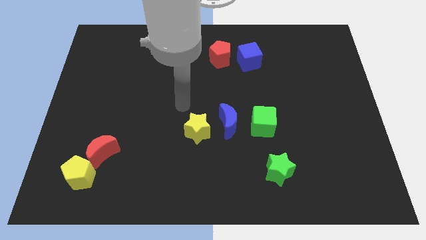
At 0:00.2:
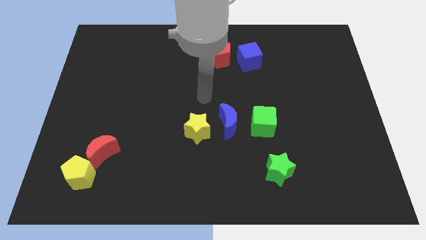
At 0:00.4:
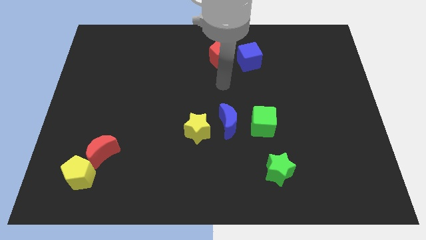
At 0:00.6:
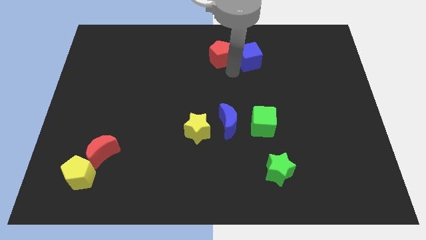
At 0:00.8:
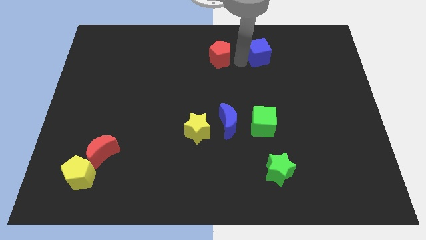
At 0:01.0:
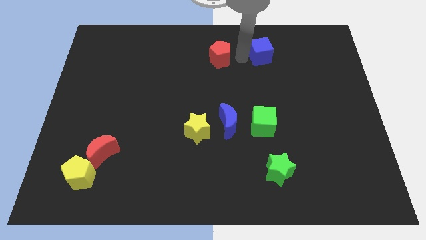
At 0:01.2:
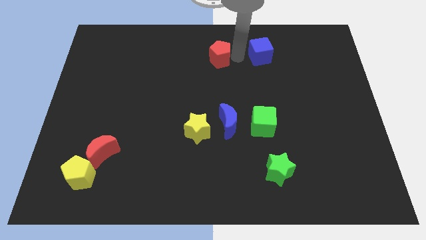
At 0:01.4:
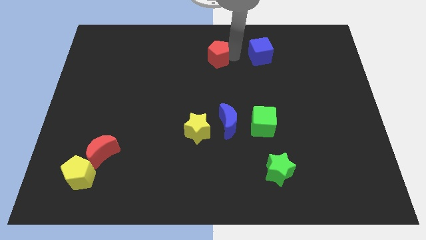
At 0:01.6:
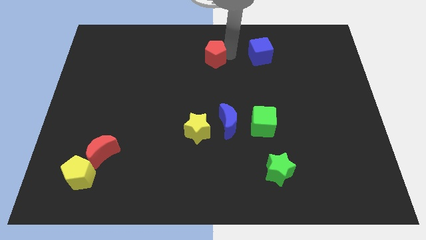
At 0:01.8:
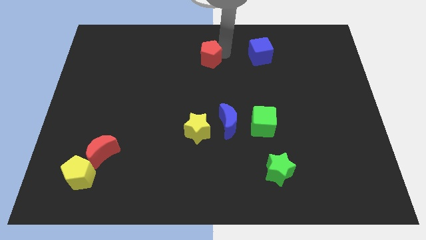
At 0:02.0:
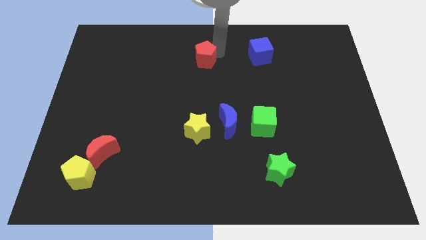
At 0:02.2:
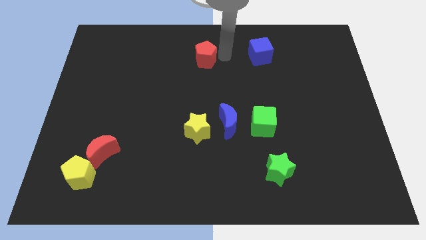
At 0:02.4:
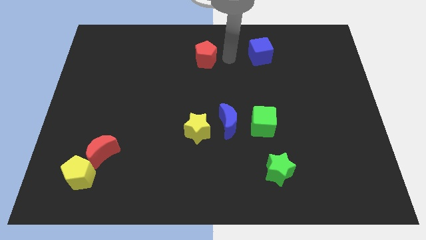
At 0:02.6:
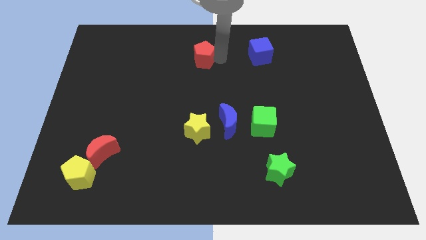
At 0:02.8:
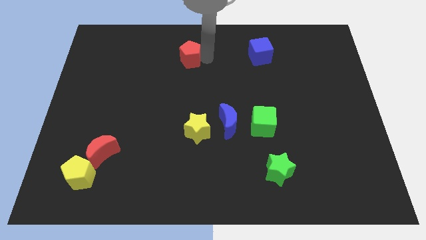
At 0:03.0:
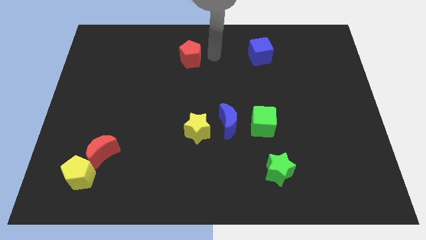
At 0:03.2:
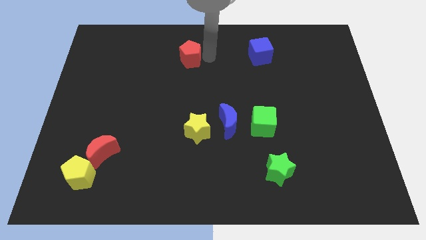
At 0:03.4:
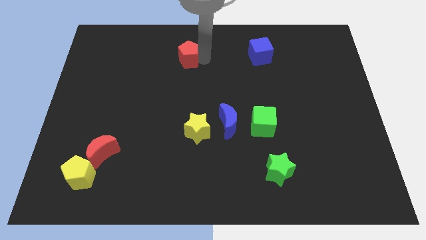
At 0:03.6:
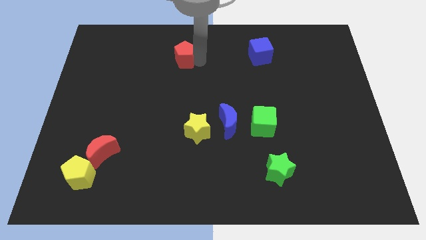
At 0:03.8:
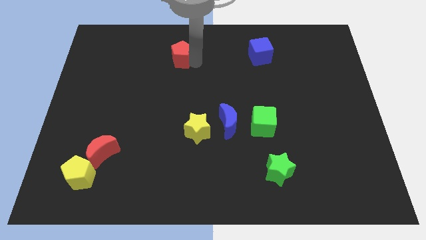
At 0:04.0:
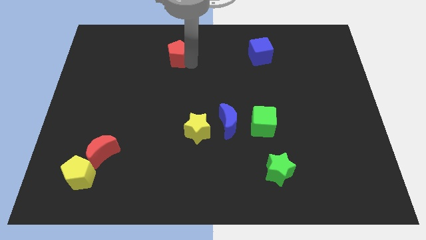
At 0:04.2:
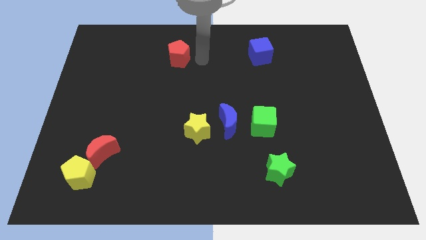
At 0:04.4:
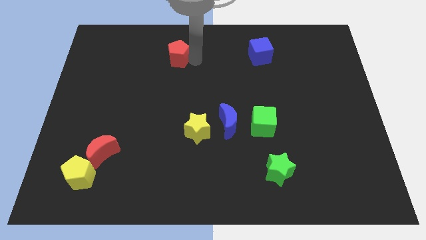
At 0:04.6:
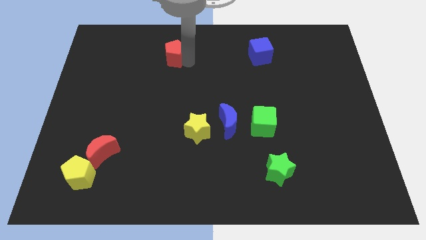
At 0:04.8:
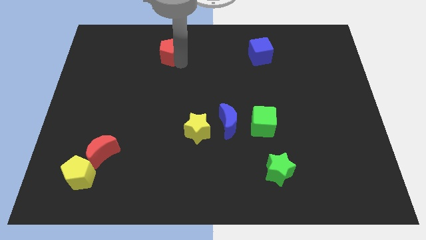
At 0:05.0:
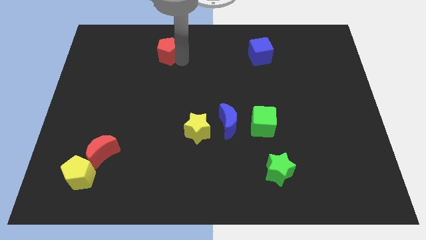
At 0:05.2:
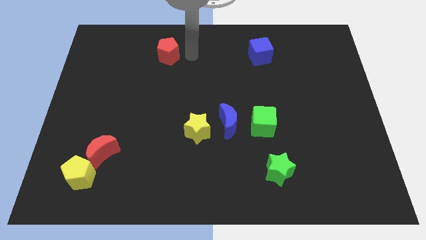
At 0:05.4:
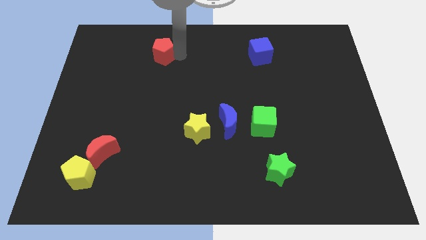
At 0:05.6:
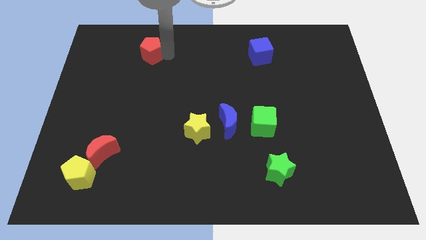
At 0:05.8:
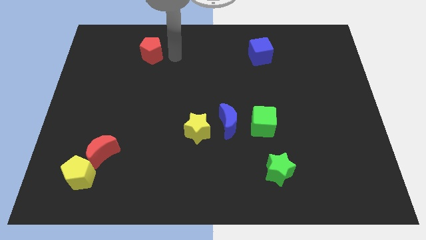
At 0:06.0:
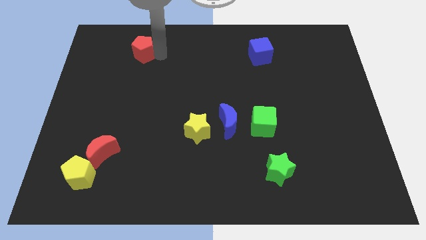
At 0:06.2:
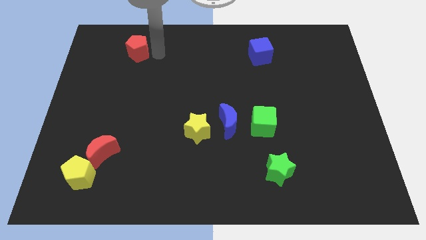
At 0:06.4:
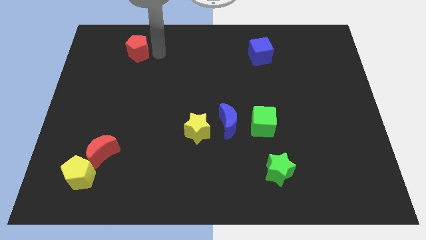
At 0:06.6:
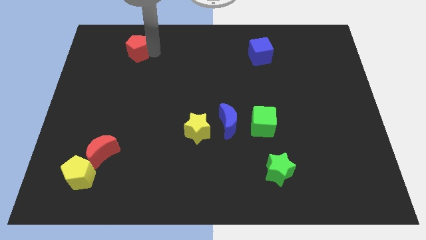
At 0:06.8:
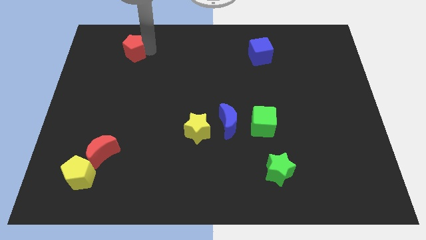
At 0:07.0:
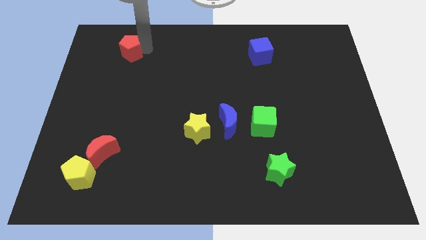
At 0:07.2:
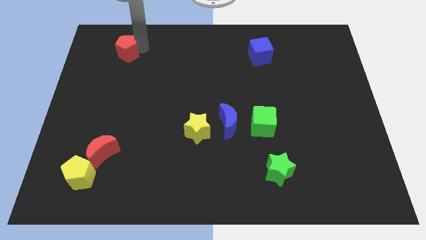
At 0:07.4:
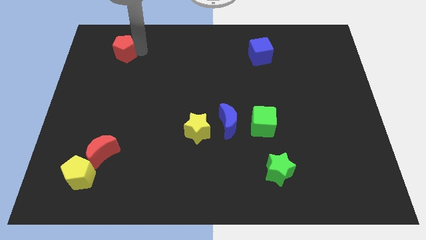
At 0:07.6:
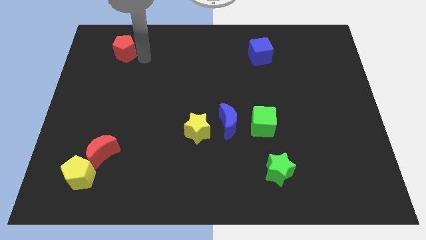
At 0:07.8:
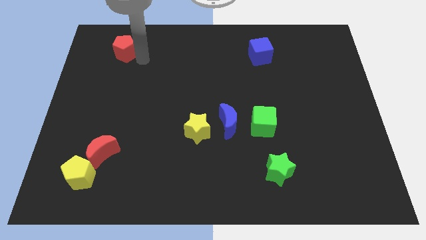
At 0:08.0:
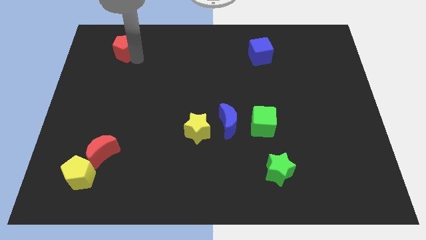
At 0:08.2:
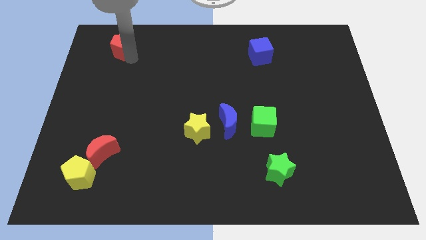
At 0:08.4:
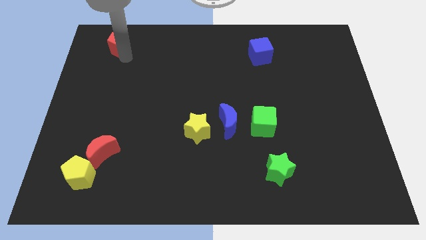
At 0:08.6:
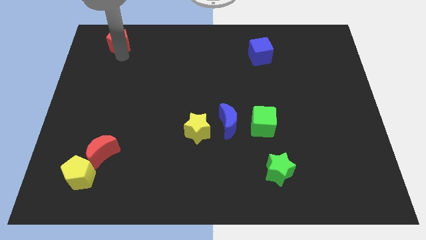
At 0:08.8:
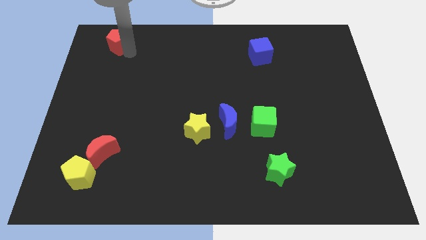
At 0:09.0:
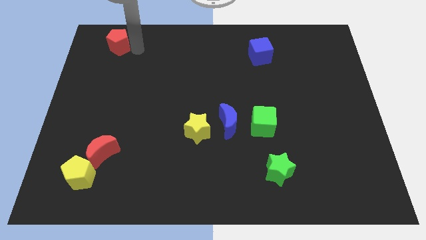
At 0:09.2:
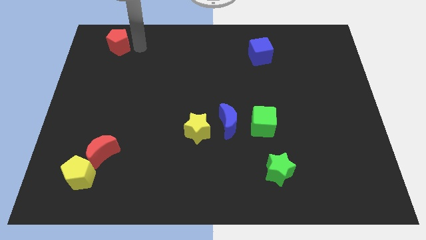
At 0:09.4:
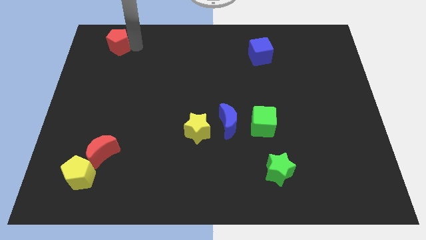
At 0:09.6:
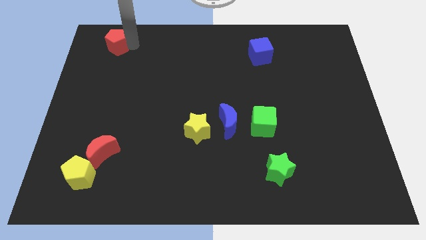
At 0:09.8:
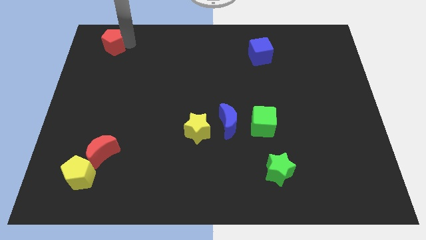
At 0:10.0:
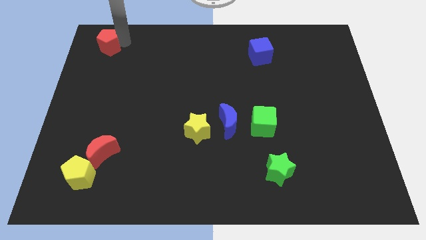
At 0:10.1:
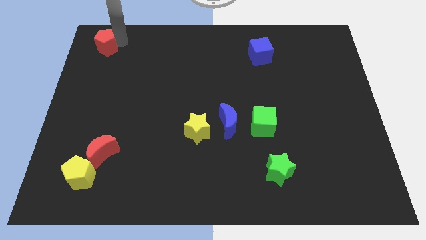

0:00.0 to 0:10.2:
push the red pentagon to the upper left corner

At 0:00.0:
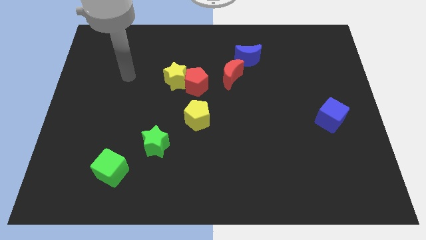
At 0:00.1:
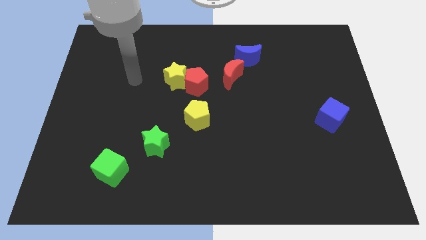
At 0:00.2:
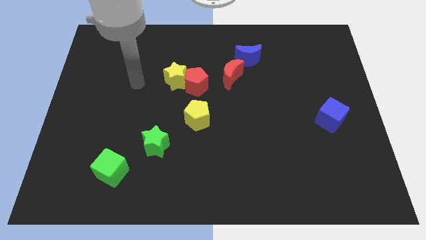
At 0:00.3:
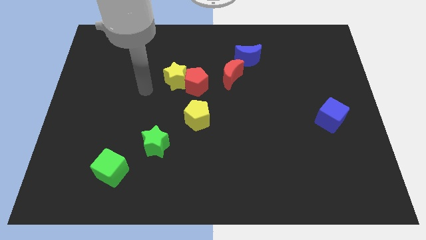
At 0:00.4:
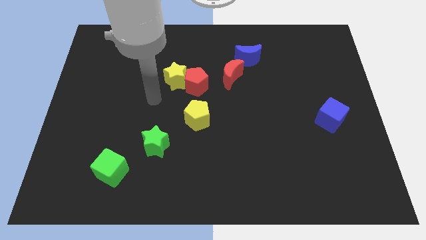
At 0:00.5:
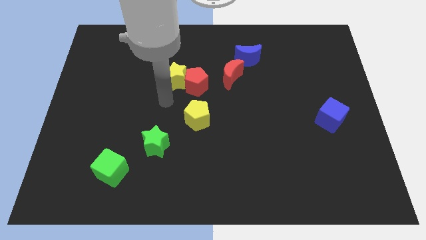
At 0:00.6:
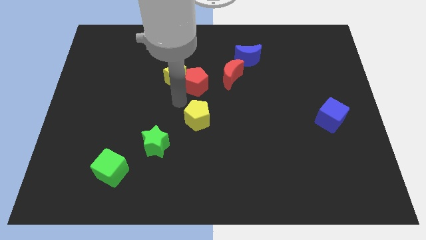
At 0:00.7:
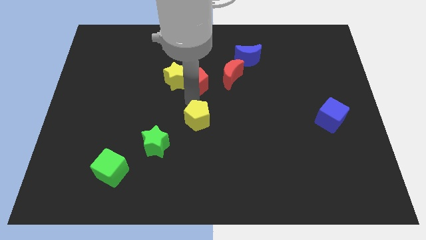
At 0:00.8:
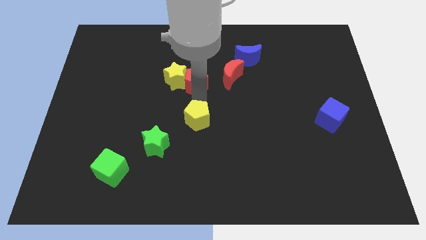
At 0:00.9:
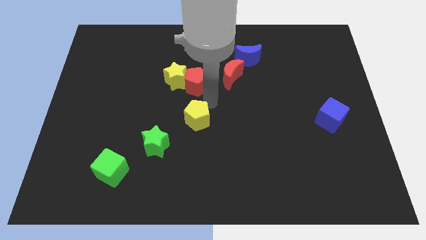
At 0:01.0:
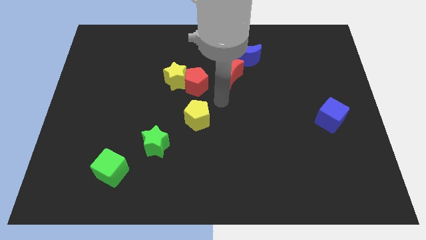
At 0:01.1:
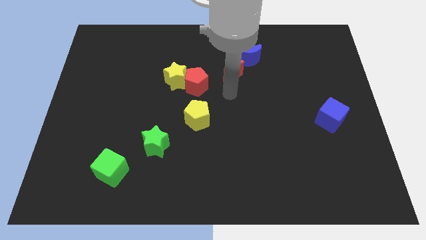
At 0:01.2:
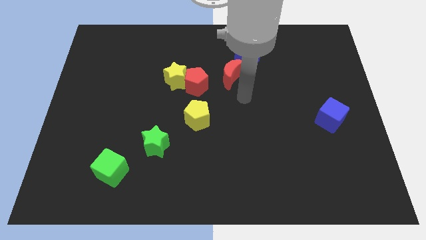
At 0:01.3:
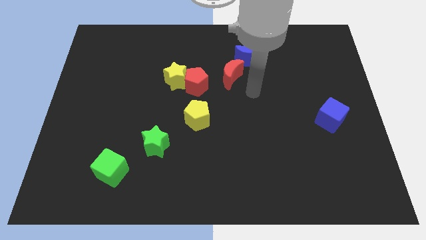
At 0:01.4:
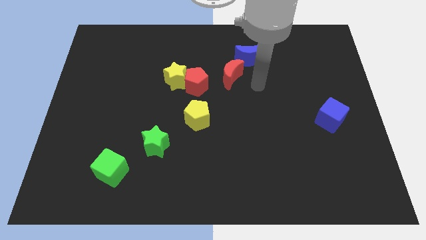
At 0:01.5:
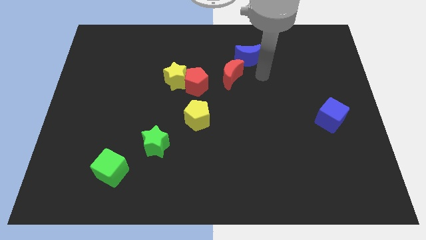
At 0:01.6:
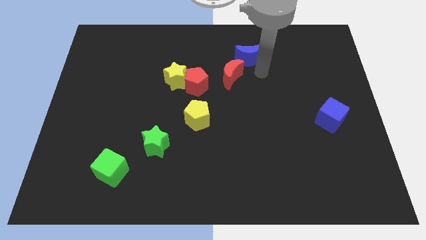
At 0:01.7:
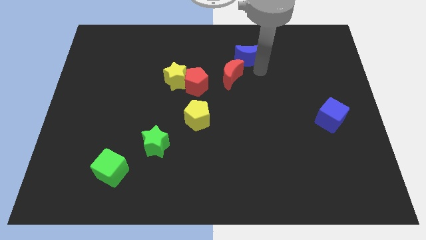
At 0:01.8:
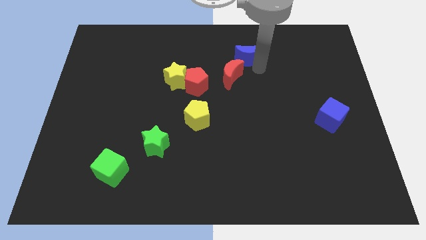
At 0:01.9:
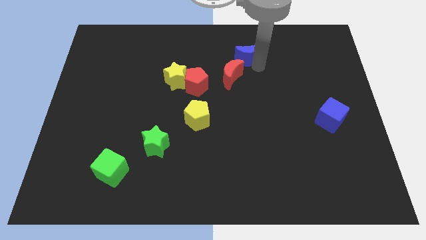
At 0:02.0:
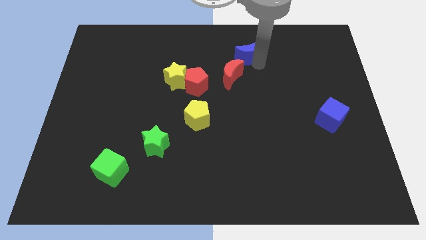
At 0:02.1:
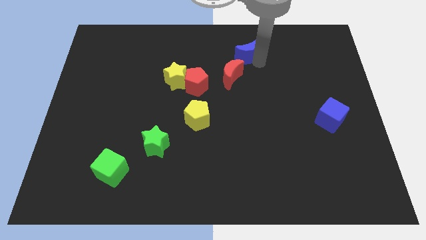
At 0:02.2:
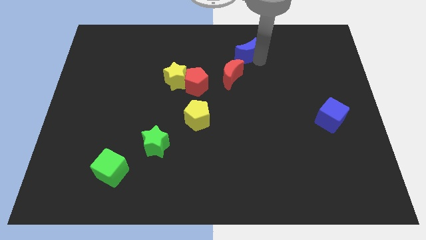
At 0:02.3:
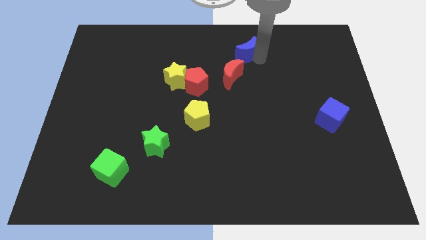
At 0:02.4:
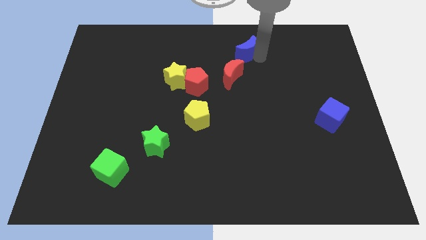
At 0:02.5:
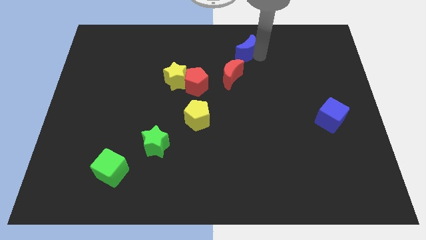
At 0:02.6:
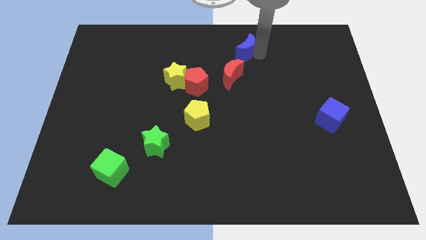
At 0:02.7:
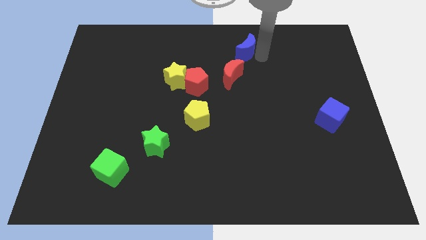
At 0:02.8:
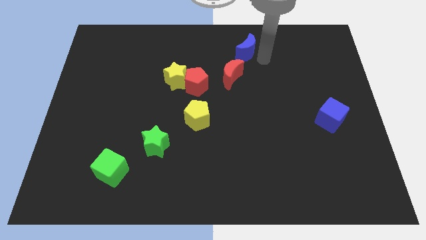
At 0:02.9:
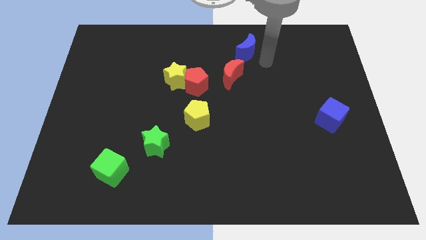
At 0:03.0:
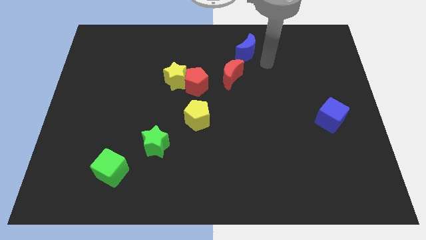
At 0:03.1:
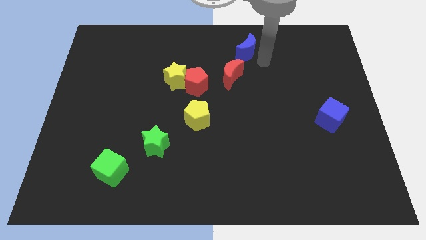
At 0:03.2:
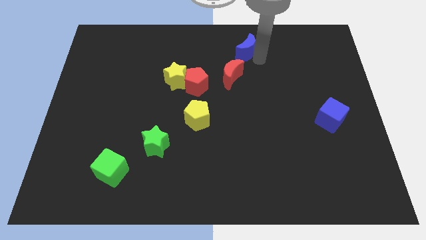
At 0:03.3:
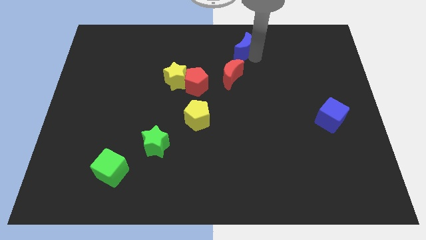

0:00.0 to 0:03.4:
push the blue moon to the towards your base
